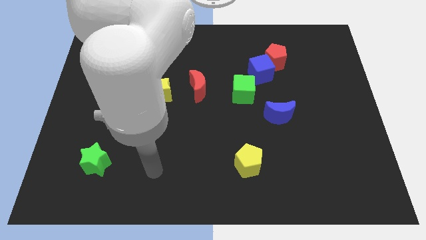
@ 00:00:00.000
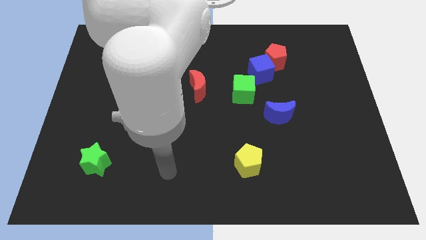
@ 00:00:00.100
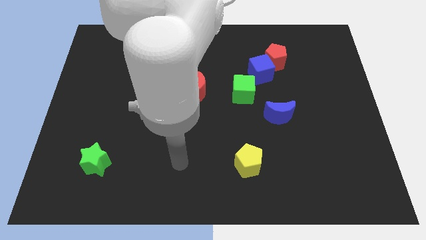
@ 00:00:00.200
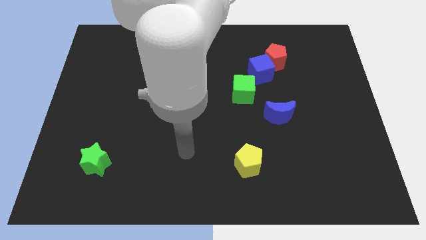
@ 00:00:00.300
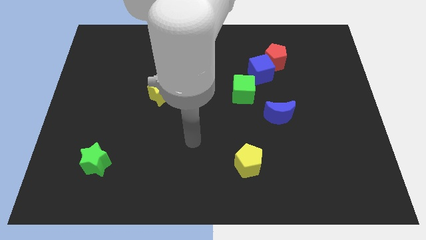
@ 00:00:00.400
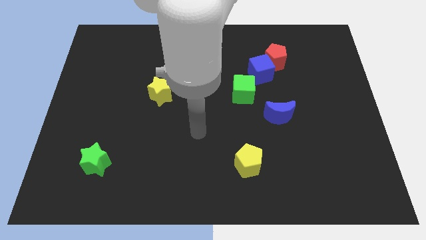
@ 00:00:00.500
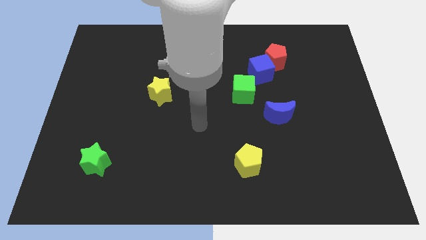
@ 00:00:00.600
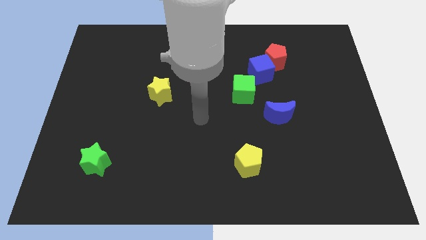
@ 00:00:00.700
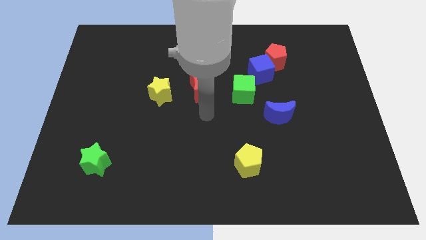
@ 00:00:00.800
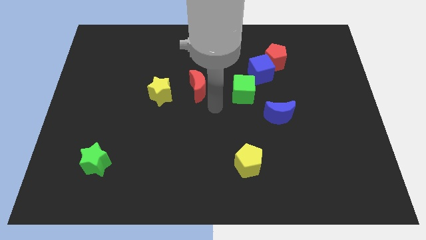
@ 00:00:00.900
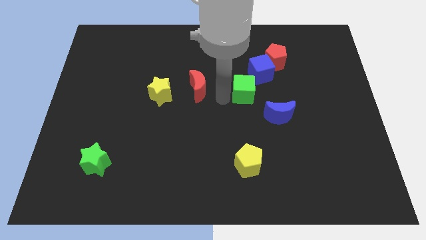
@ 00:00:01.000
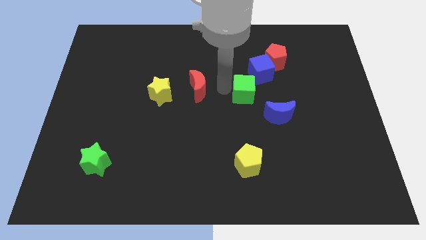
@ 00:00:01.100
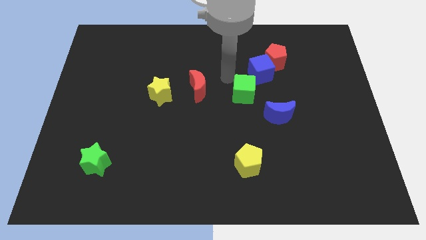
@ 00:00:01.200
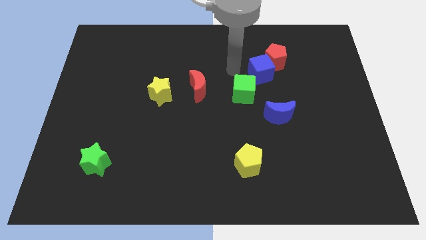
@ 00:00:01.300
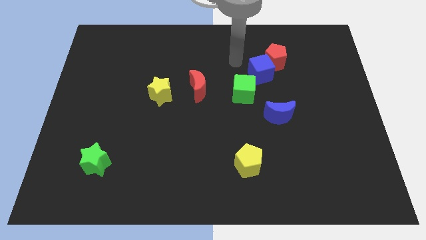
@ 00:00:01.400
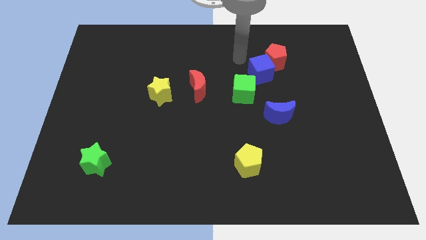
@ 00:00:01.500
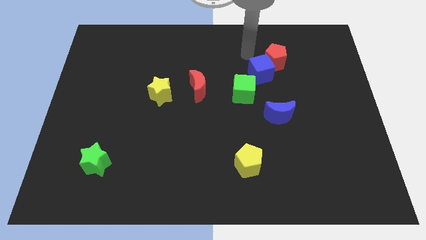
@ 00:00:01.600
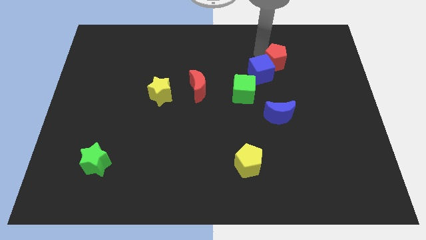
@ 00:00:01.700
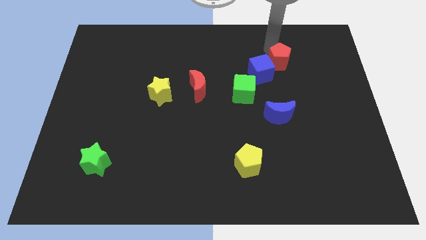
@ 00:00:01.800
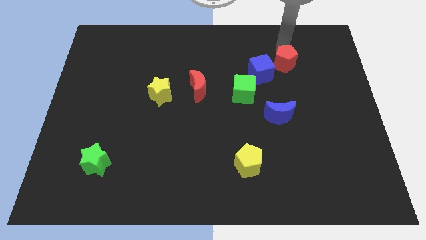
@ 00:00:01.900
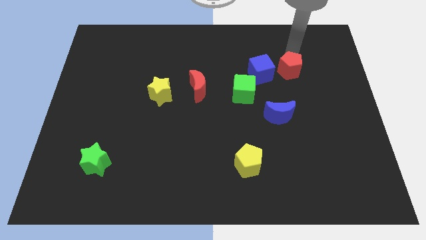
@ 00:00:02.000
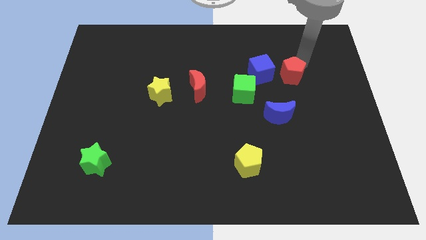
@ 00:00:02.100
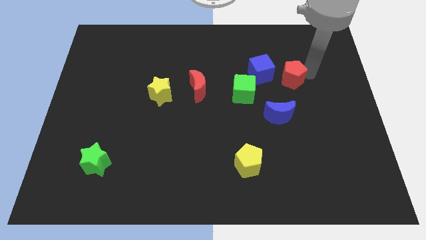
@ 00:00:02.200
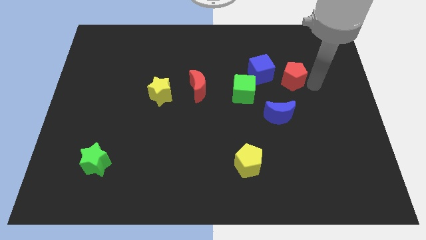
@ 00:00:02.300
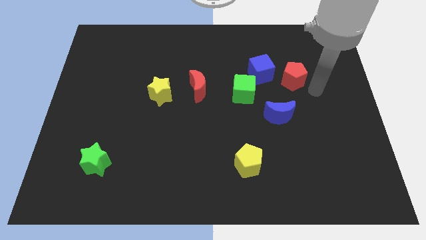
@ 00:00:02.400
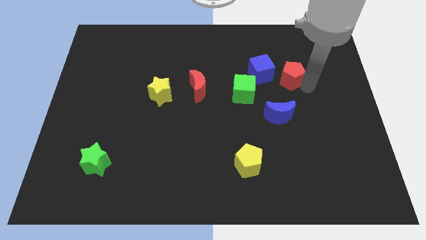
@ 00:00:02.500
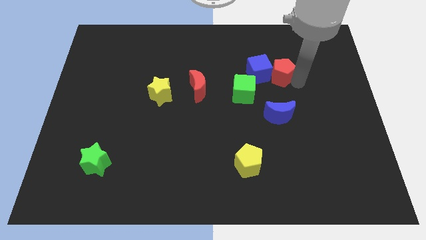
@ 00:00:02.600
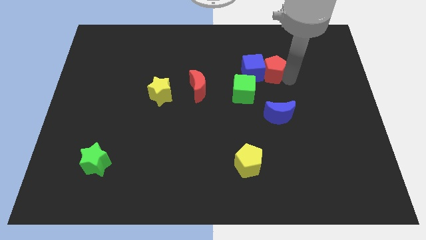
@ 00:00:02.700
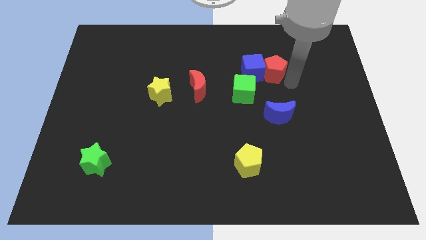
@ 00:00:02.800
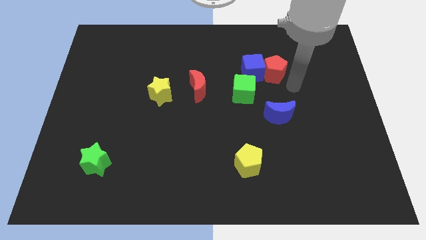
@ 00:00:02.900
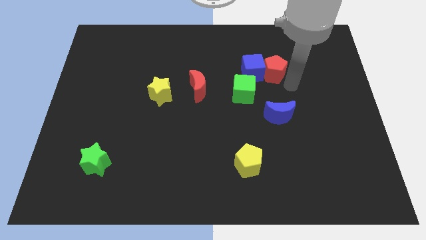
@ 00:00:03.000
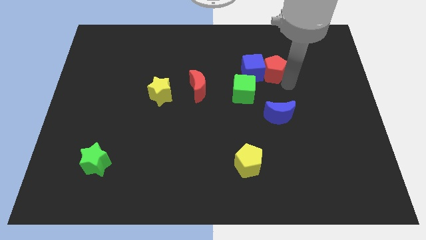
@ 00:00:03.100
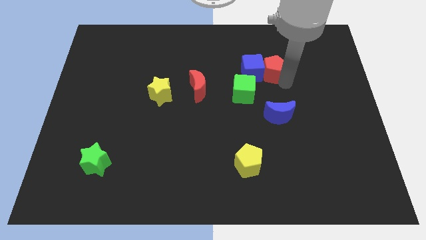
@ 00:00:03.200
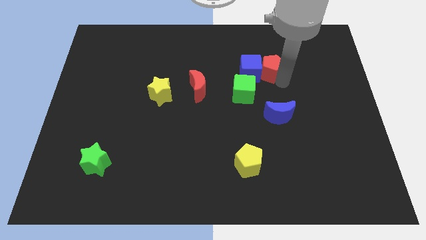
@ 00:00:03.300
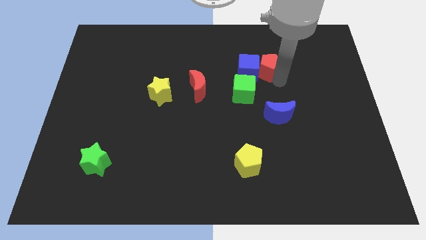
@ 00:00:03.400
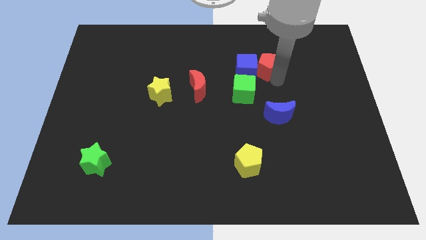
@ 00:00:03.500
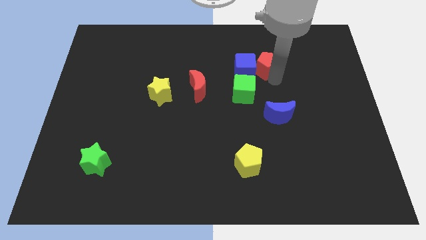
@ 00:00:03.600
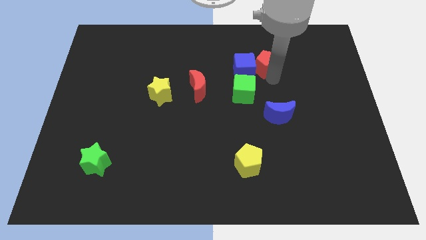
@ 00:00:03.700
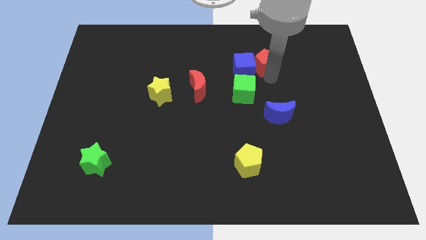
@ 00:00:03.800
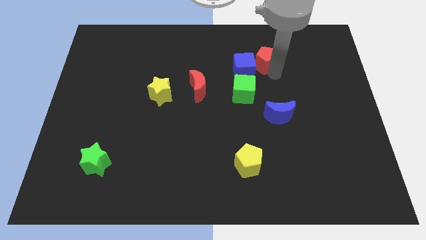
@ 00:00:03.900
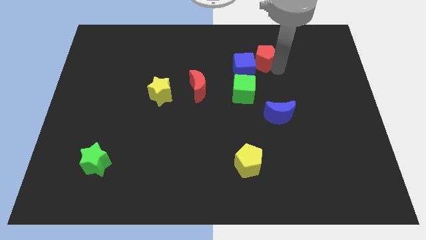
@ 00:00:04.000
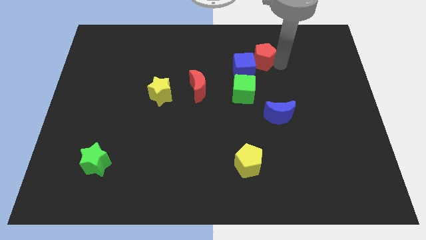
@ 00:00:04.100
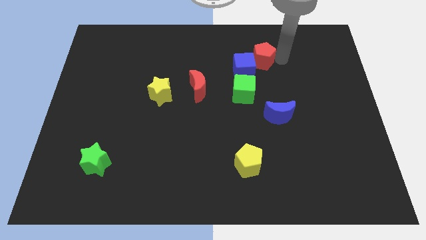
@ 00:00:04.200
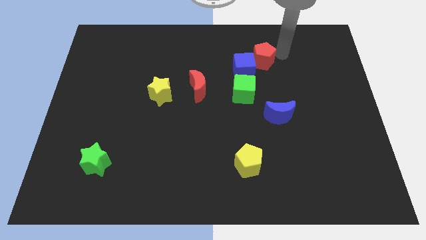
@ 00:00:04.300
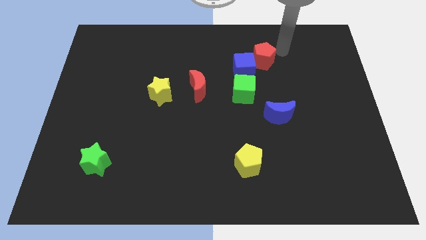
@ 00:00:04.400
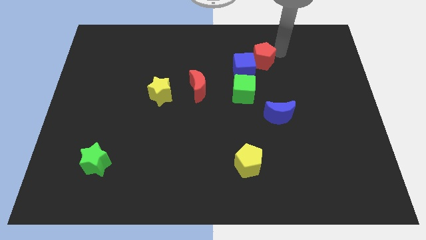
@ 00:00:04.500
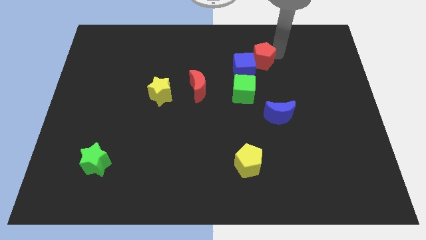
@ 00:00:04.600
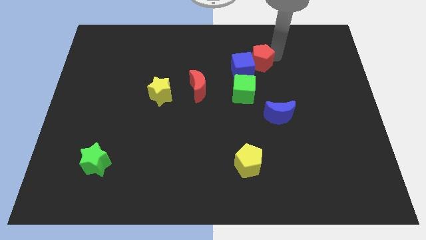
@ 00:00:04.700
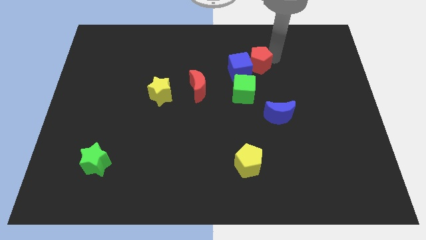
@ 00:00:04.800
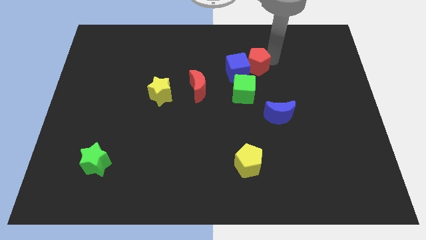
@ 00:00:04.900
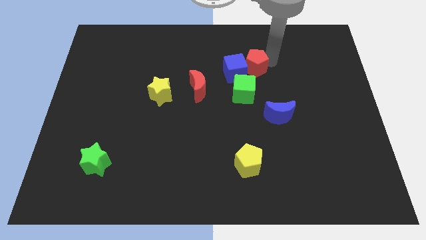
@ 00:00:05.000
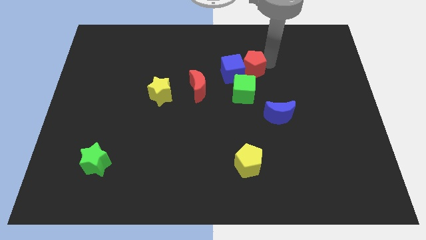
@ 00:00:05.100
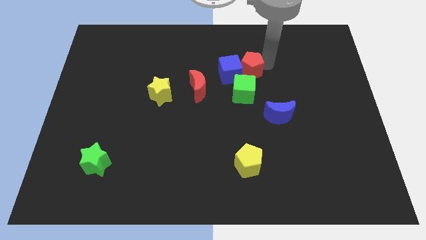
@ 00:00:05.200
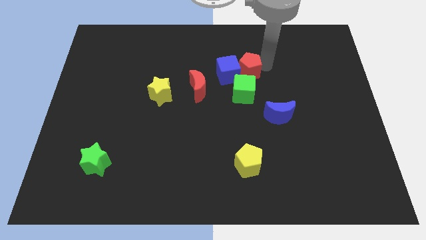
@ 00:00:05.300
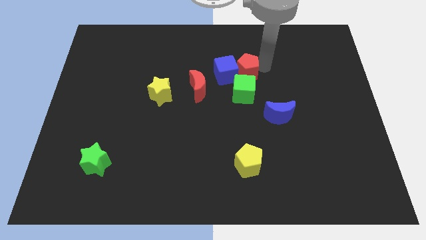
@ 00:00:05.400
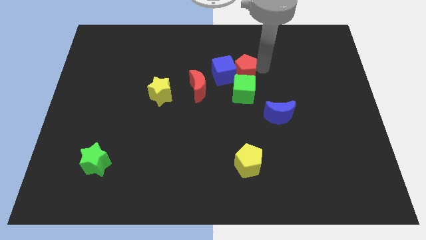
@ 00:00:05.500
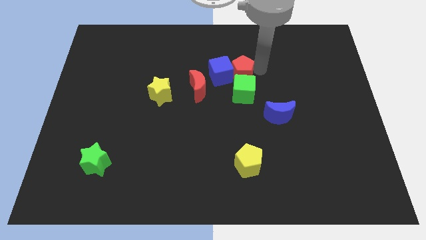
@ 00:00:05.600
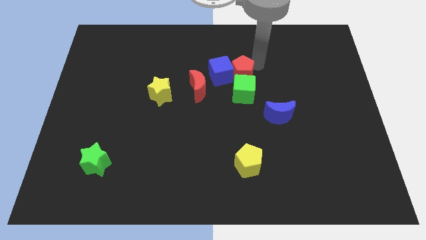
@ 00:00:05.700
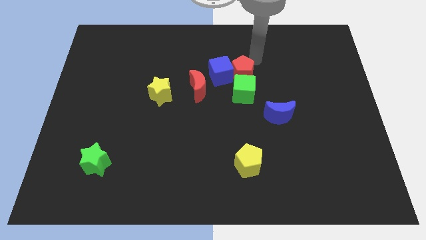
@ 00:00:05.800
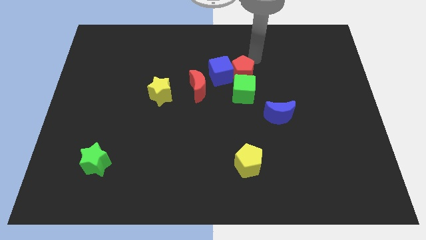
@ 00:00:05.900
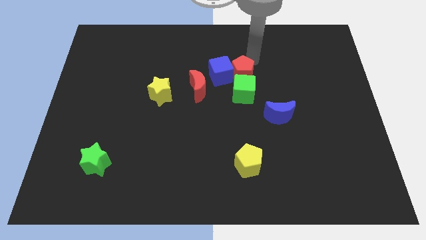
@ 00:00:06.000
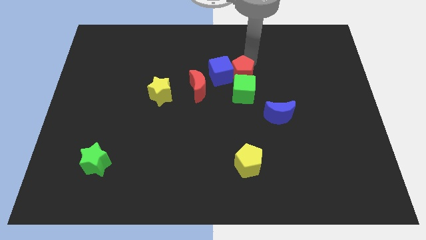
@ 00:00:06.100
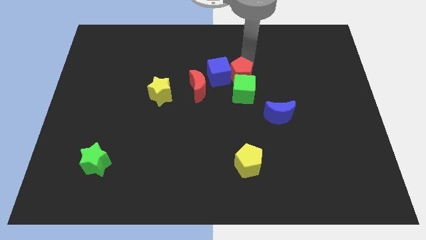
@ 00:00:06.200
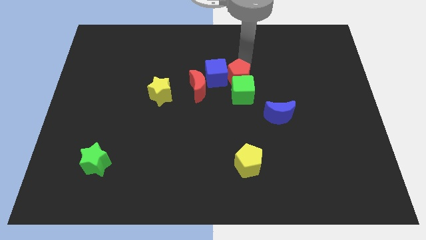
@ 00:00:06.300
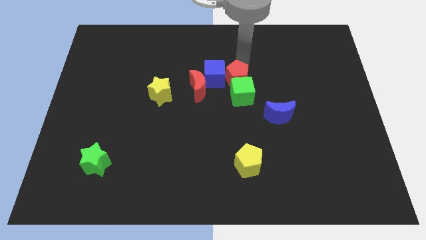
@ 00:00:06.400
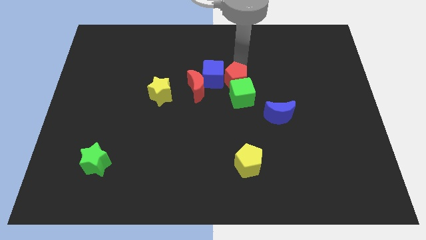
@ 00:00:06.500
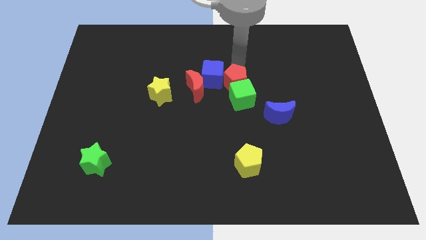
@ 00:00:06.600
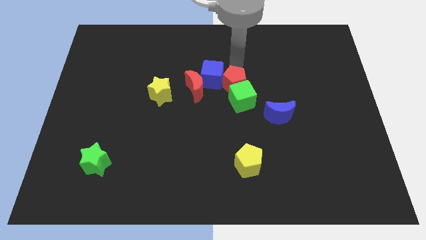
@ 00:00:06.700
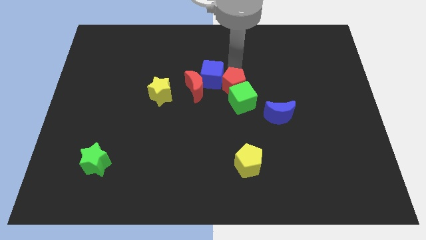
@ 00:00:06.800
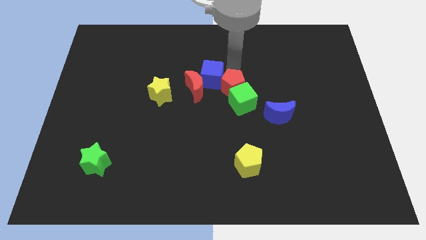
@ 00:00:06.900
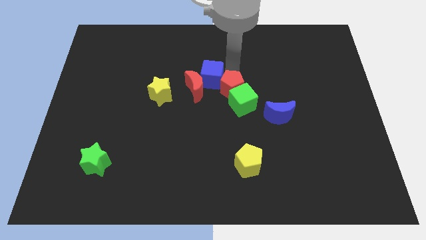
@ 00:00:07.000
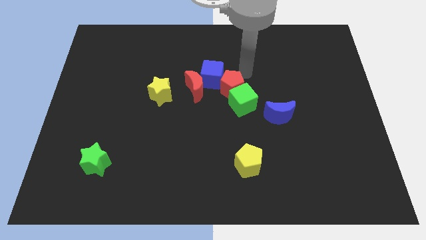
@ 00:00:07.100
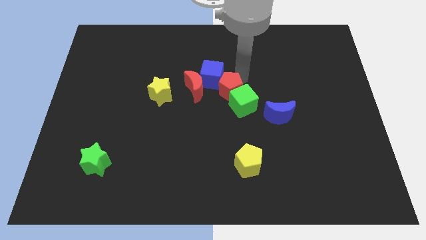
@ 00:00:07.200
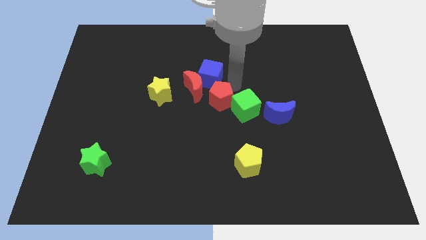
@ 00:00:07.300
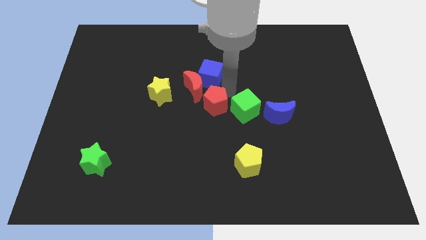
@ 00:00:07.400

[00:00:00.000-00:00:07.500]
put the red pentagon to the bottom of the red moon
